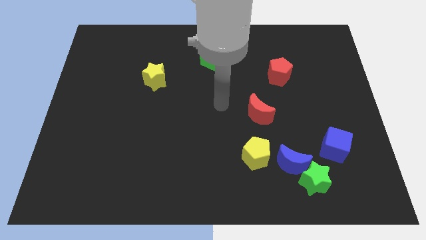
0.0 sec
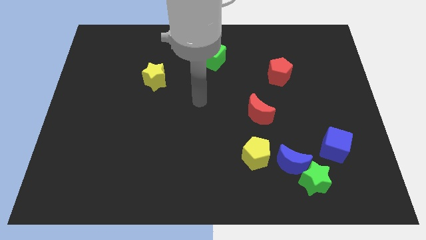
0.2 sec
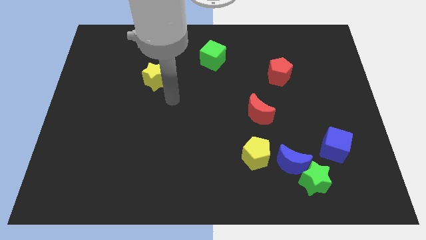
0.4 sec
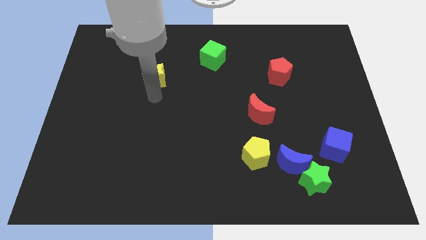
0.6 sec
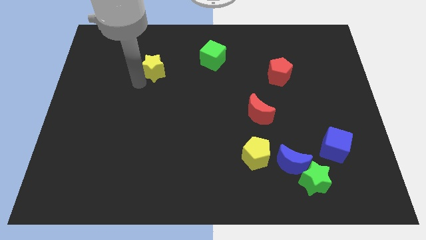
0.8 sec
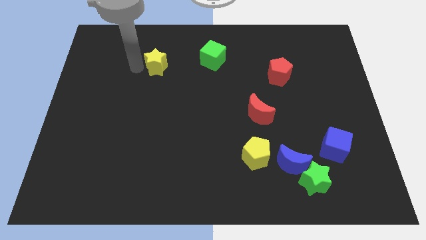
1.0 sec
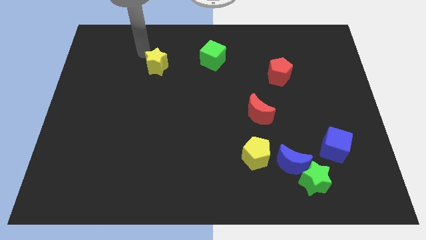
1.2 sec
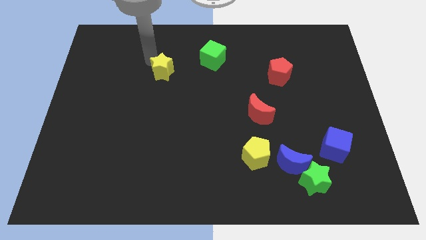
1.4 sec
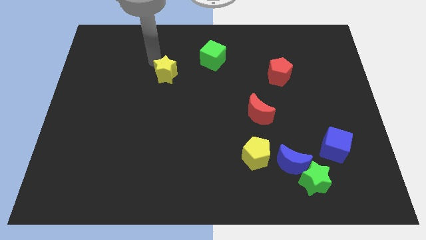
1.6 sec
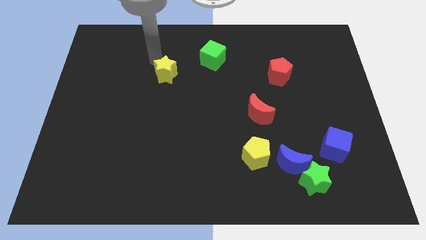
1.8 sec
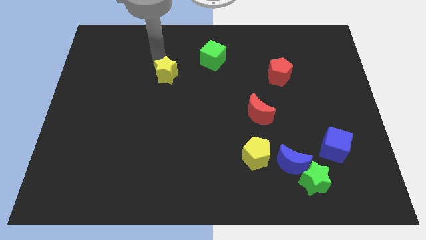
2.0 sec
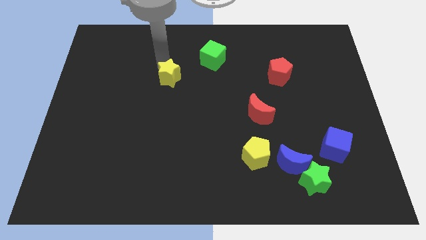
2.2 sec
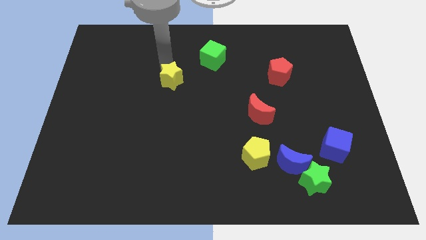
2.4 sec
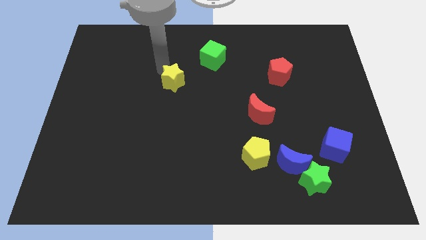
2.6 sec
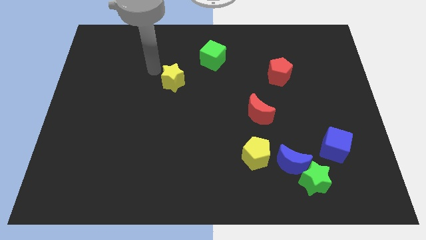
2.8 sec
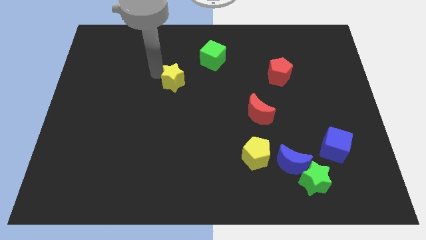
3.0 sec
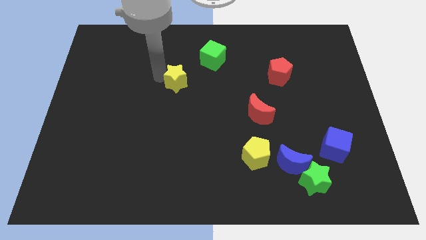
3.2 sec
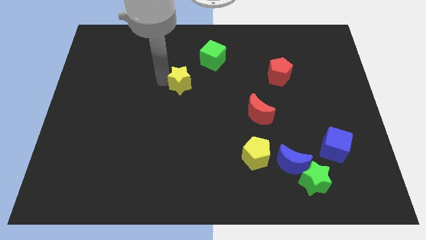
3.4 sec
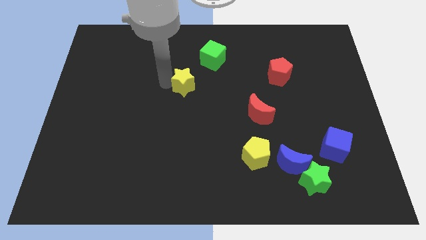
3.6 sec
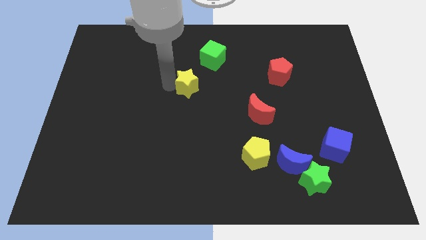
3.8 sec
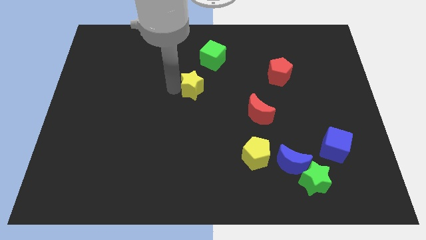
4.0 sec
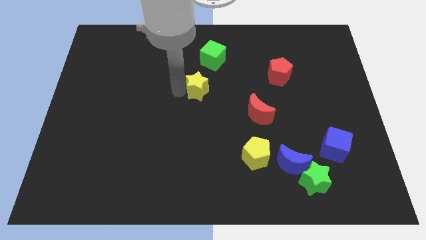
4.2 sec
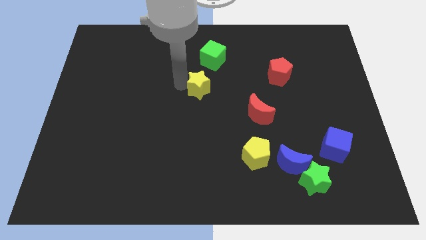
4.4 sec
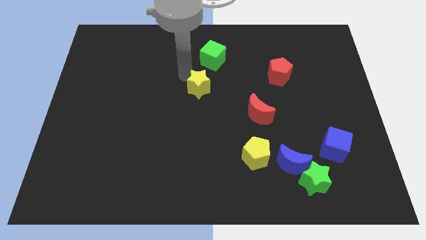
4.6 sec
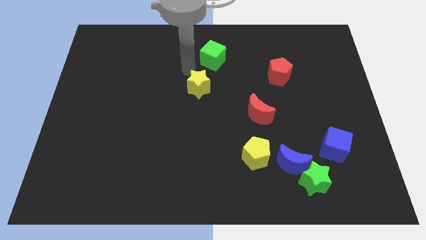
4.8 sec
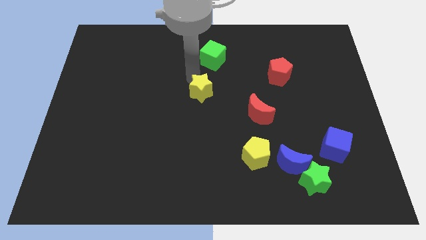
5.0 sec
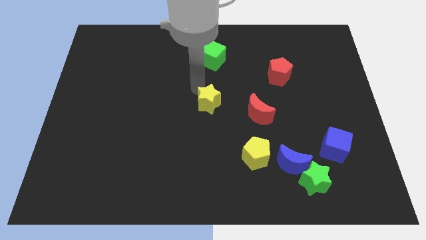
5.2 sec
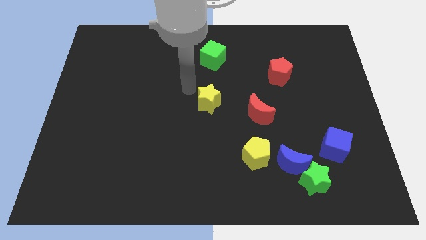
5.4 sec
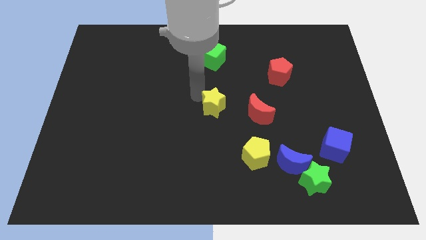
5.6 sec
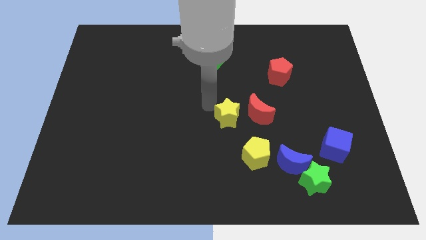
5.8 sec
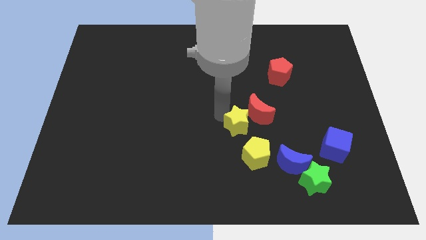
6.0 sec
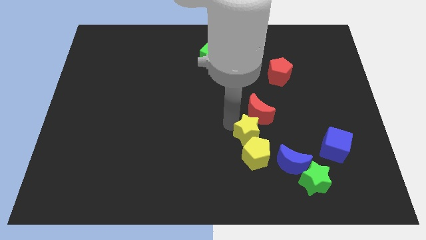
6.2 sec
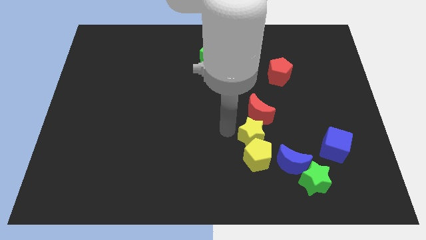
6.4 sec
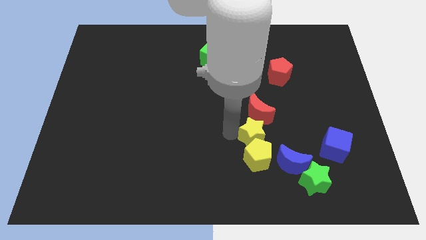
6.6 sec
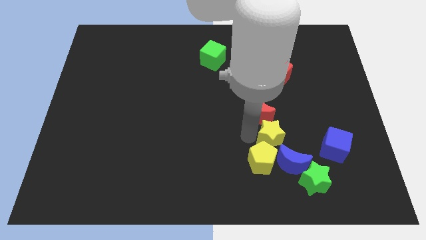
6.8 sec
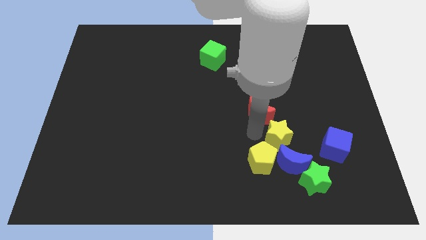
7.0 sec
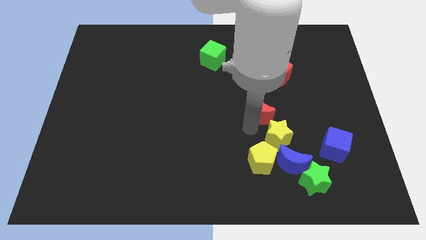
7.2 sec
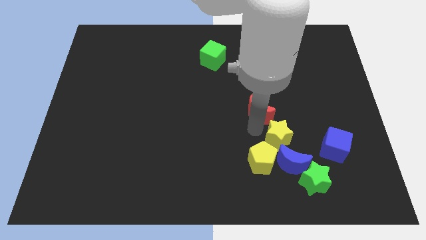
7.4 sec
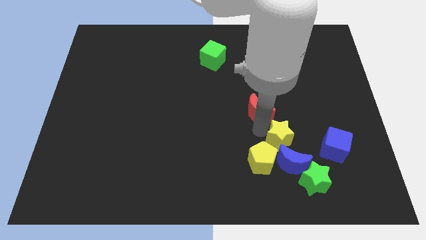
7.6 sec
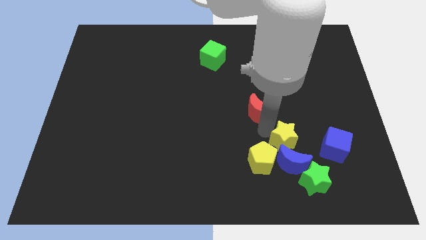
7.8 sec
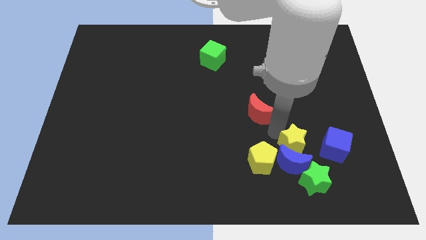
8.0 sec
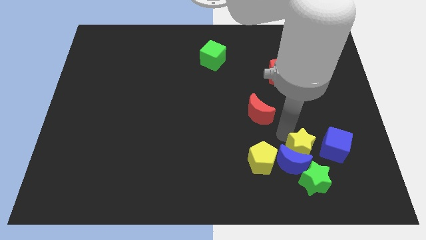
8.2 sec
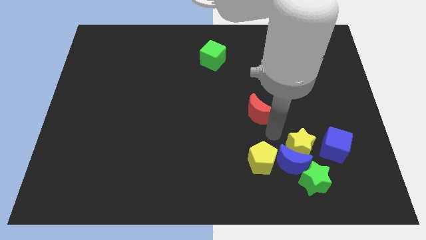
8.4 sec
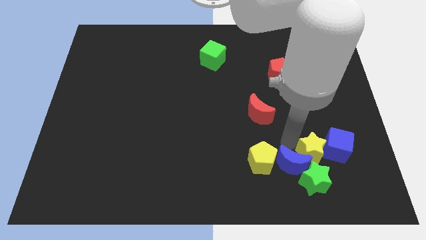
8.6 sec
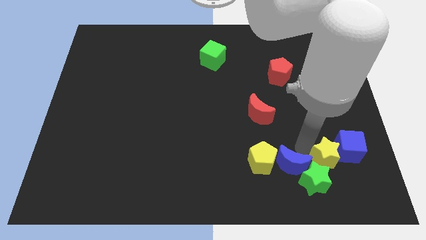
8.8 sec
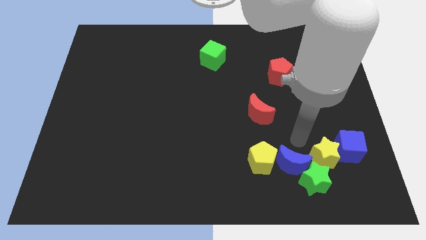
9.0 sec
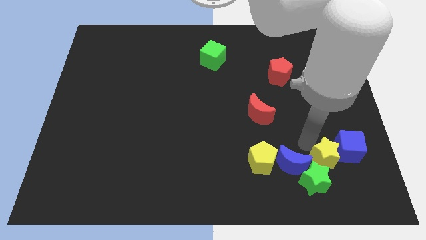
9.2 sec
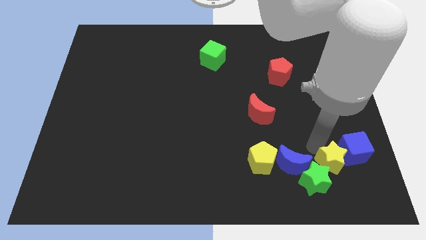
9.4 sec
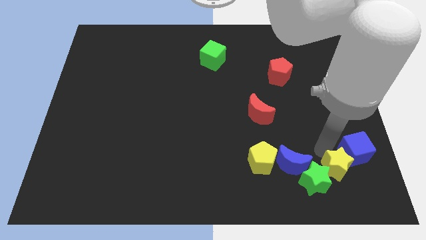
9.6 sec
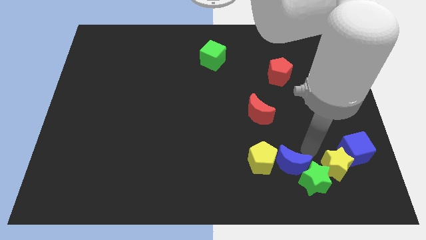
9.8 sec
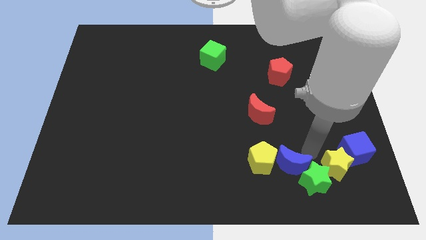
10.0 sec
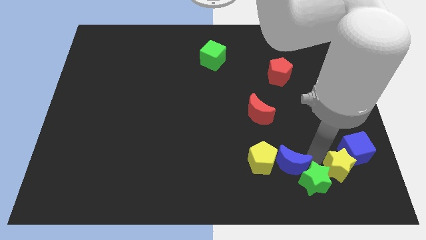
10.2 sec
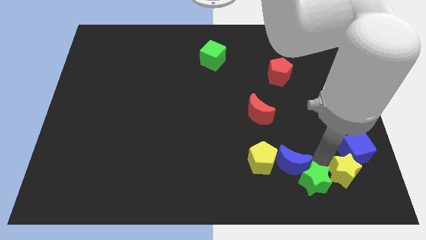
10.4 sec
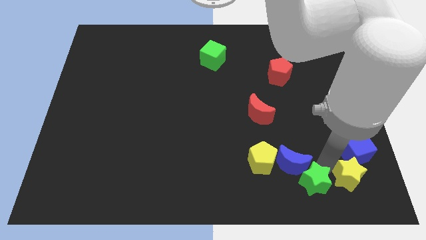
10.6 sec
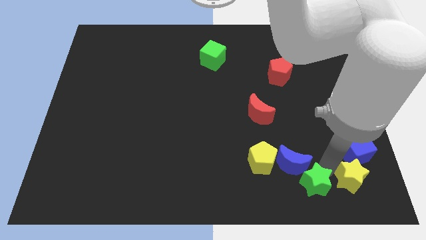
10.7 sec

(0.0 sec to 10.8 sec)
move the yellow star to the bottom right corner

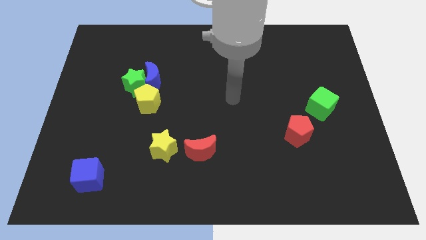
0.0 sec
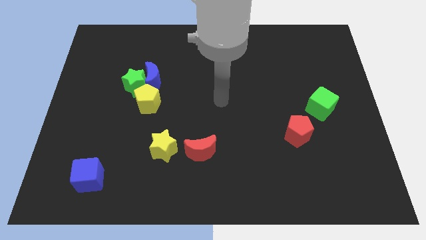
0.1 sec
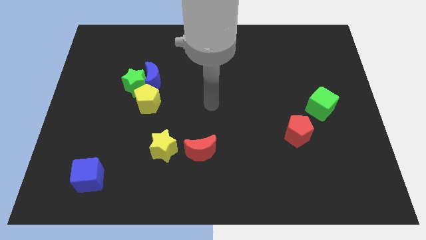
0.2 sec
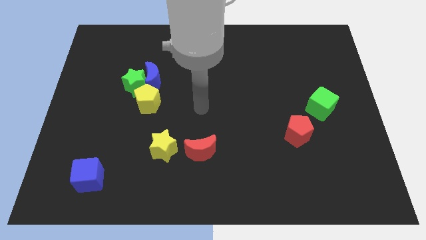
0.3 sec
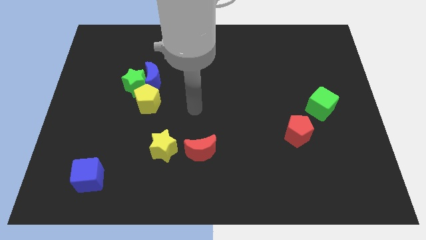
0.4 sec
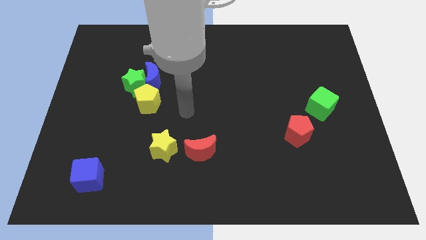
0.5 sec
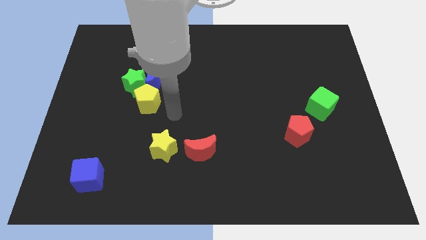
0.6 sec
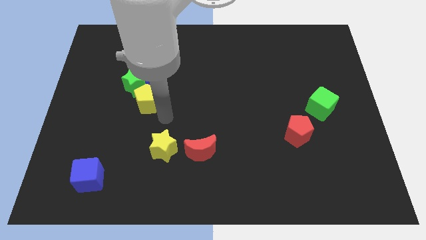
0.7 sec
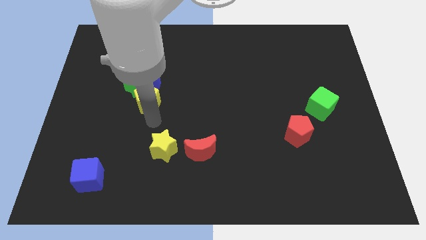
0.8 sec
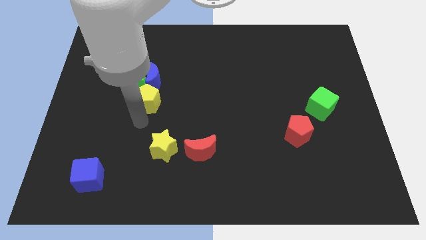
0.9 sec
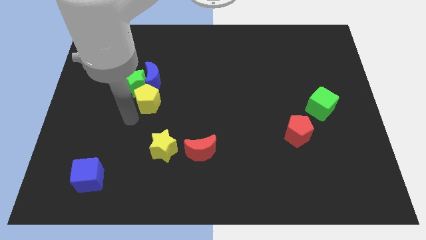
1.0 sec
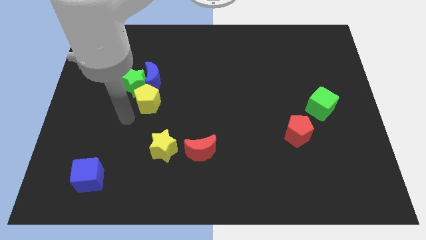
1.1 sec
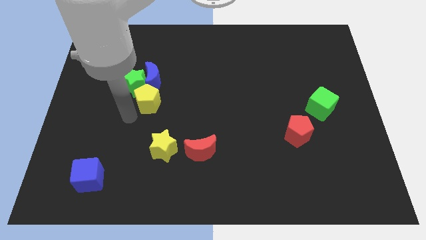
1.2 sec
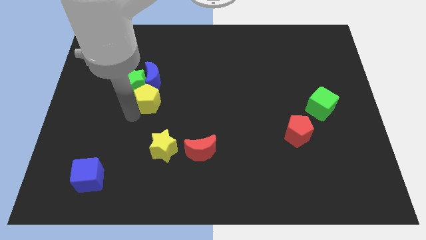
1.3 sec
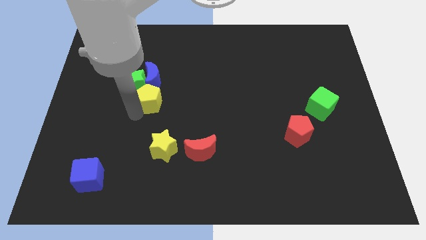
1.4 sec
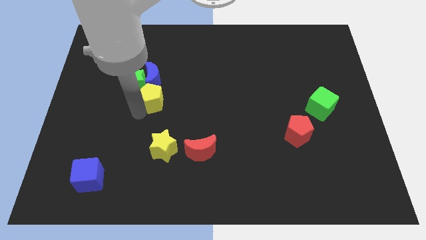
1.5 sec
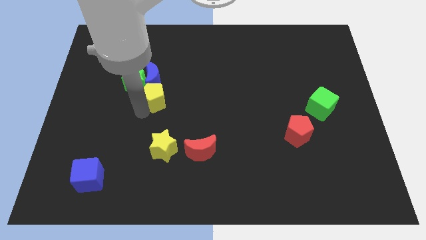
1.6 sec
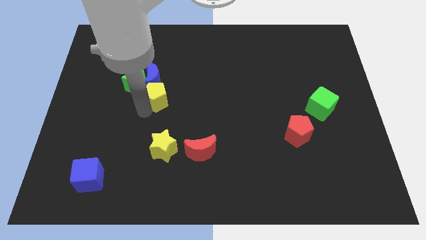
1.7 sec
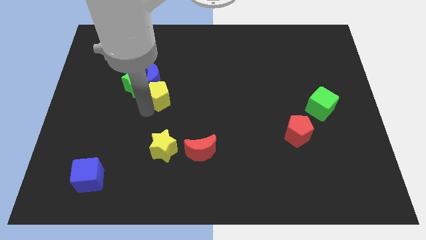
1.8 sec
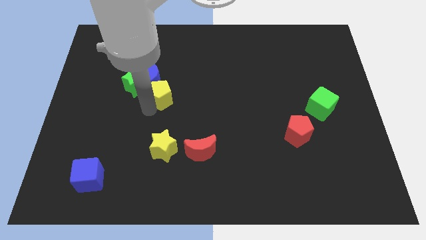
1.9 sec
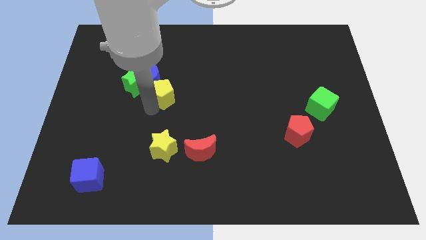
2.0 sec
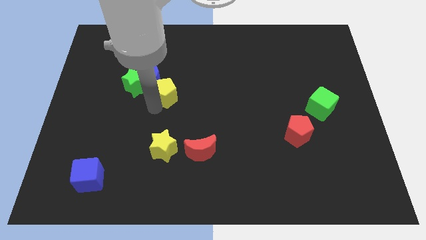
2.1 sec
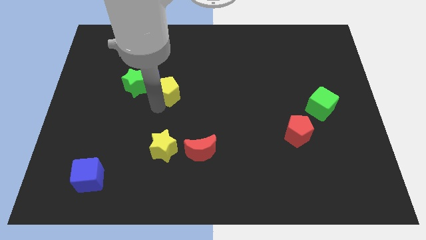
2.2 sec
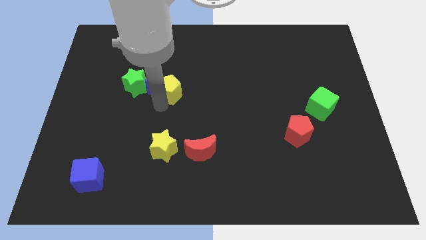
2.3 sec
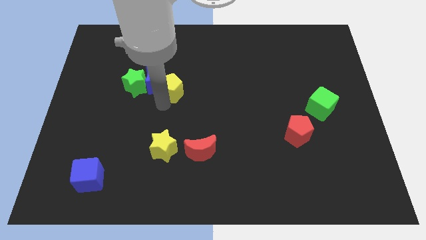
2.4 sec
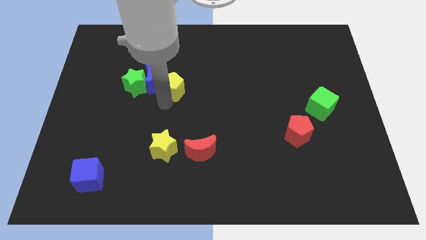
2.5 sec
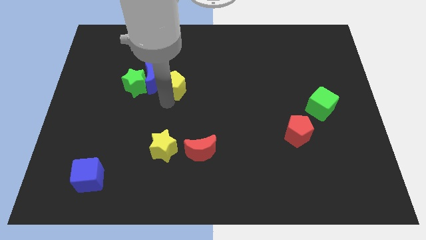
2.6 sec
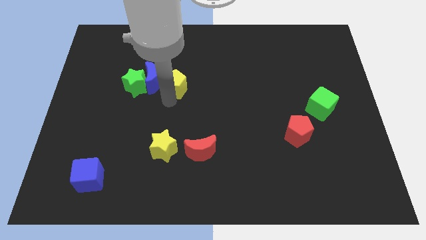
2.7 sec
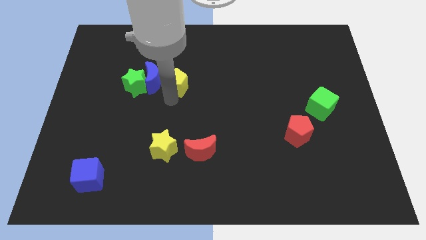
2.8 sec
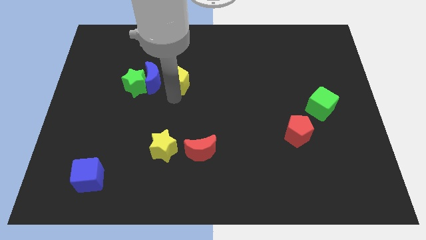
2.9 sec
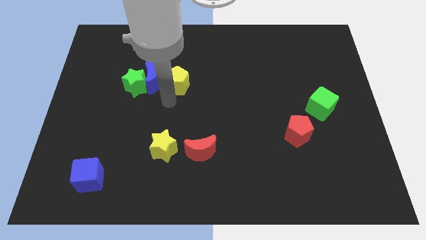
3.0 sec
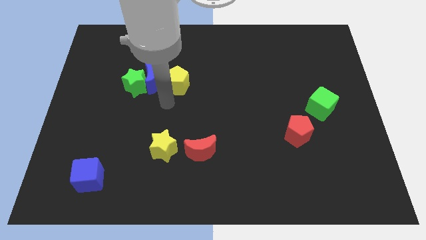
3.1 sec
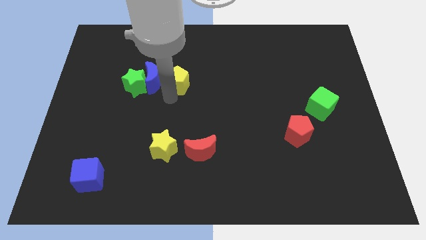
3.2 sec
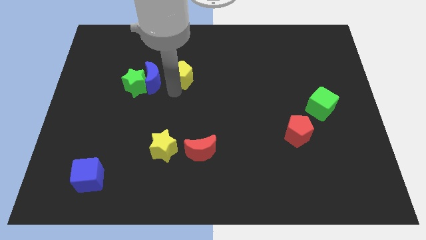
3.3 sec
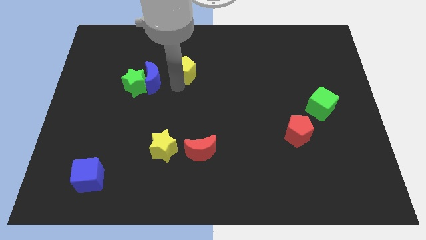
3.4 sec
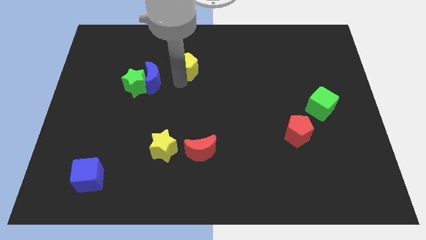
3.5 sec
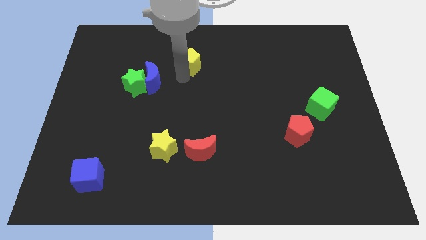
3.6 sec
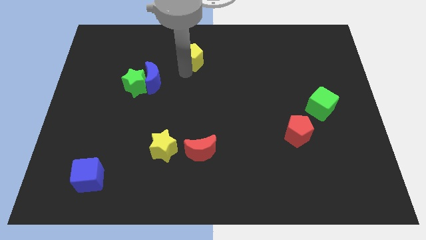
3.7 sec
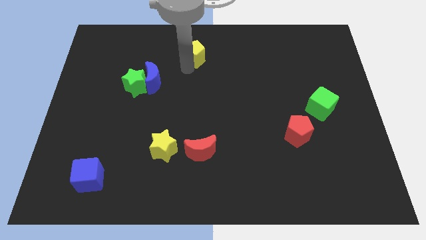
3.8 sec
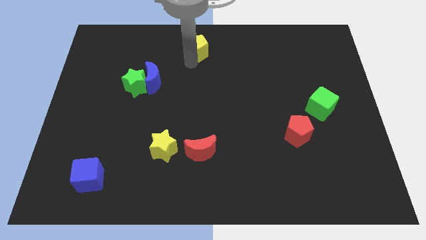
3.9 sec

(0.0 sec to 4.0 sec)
slide the yellow pentagon to the towards your base
